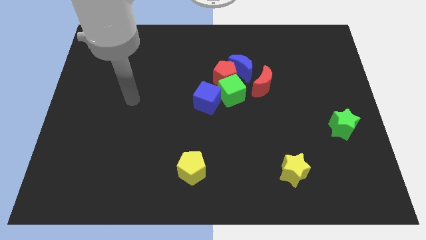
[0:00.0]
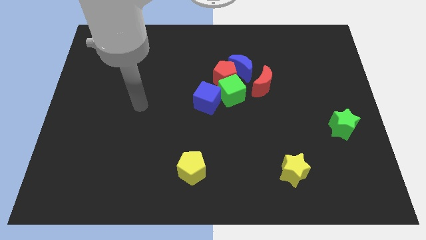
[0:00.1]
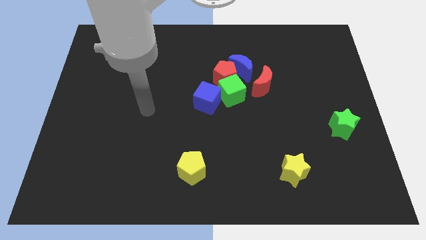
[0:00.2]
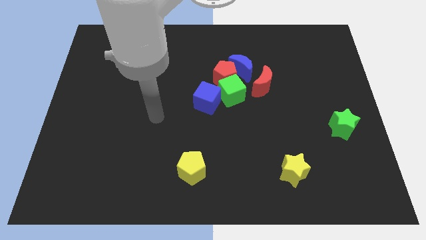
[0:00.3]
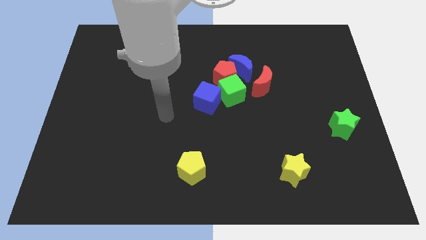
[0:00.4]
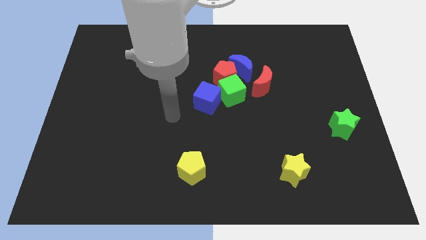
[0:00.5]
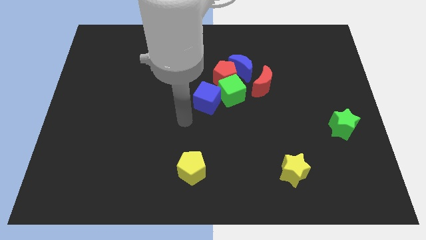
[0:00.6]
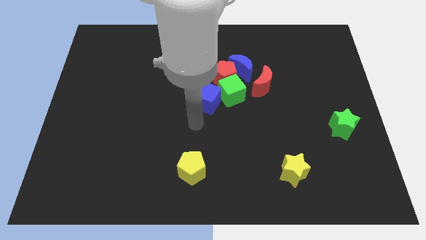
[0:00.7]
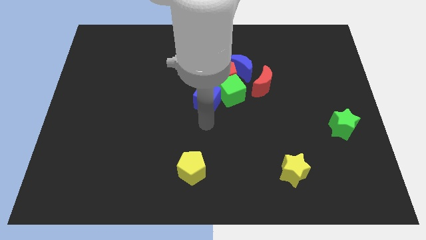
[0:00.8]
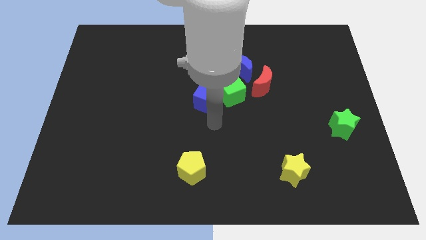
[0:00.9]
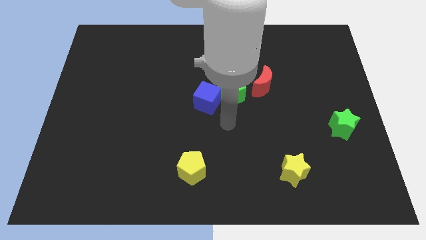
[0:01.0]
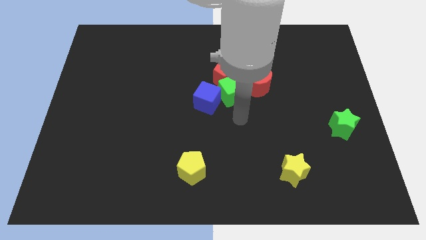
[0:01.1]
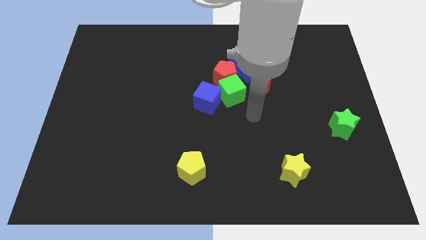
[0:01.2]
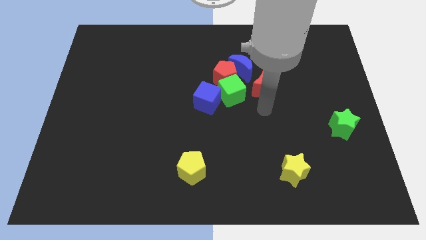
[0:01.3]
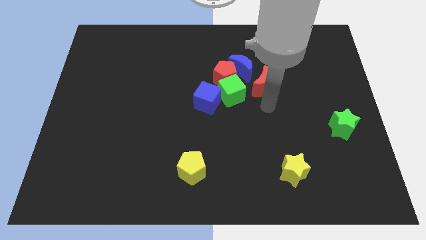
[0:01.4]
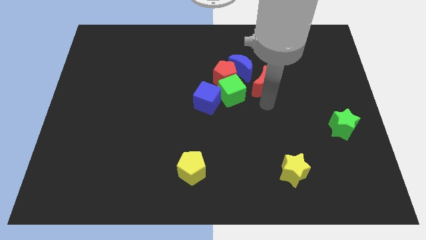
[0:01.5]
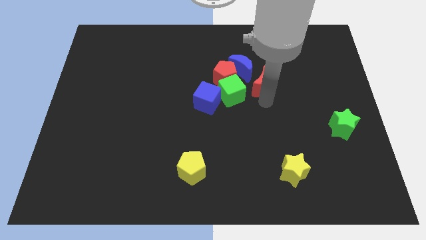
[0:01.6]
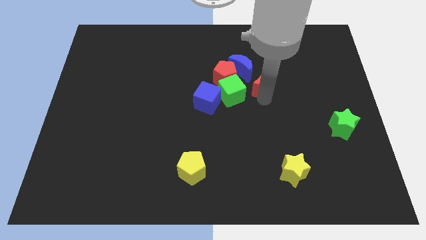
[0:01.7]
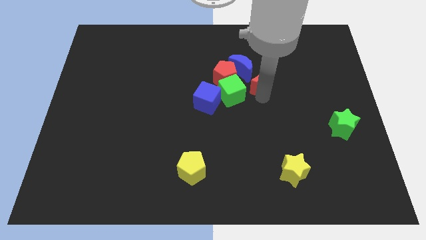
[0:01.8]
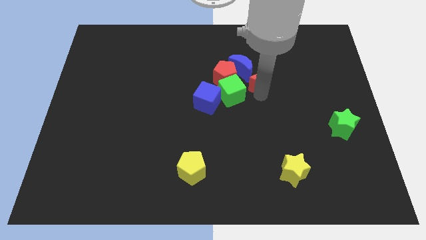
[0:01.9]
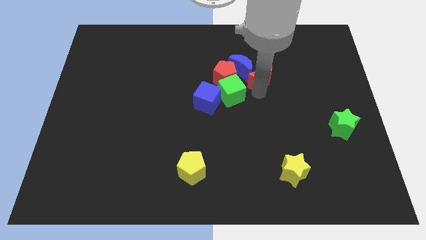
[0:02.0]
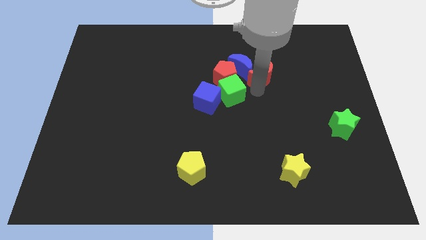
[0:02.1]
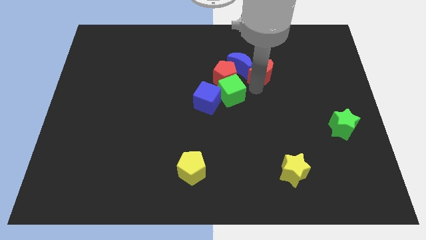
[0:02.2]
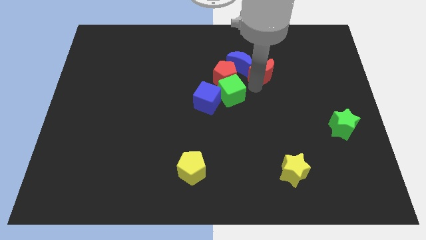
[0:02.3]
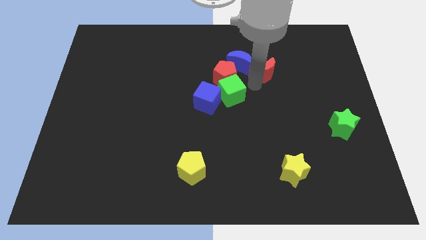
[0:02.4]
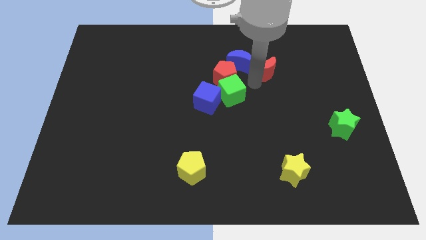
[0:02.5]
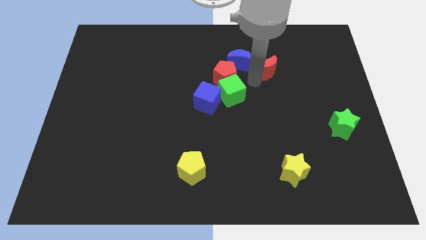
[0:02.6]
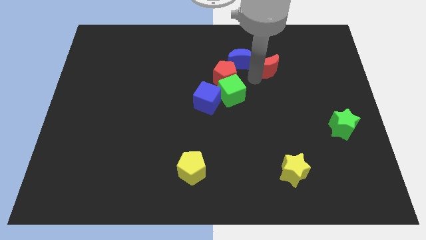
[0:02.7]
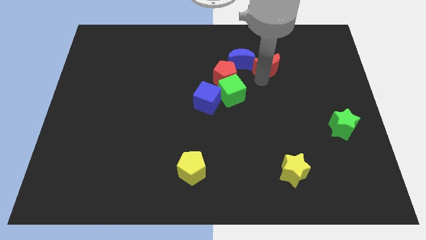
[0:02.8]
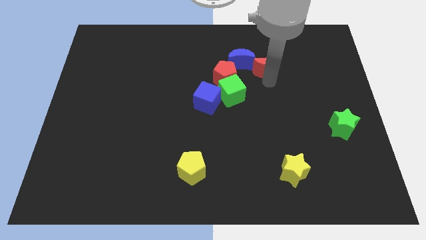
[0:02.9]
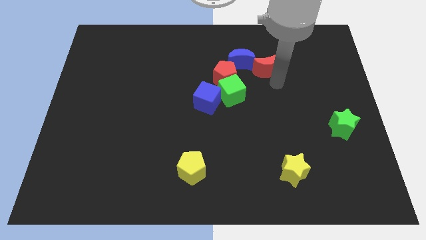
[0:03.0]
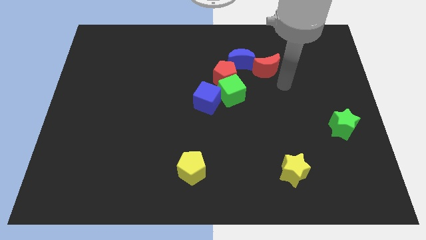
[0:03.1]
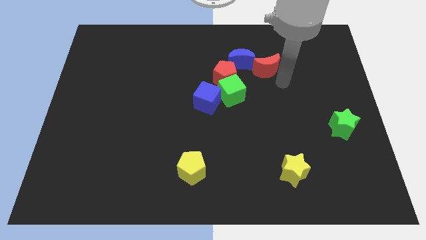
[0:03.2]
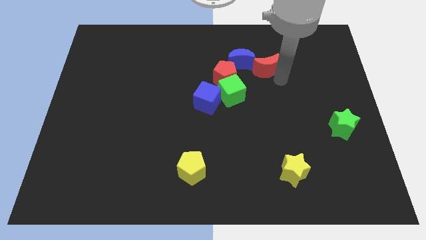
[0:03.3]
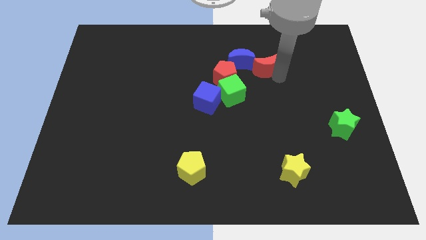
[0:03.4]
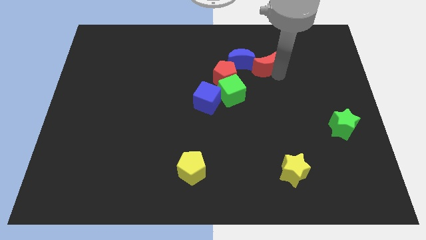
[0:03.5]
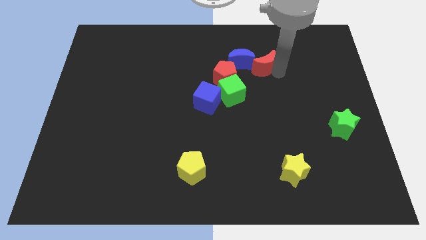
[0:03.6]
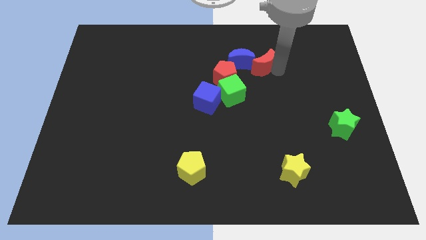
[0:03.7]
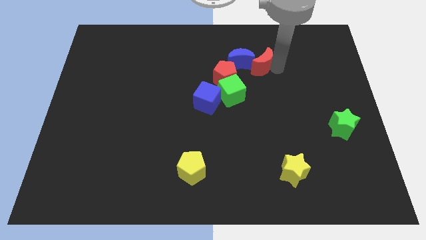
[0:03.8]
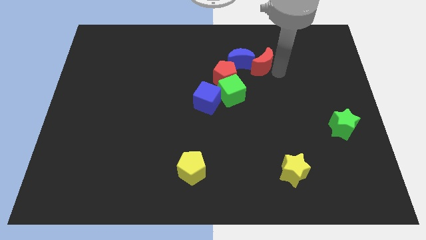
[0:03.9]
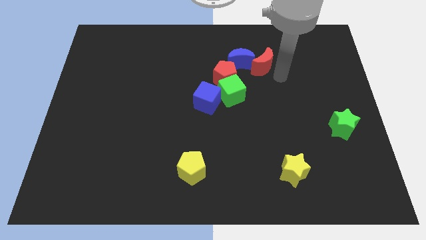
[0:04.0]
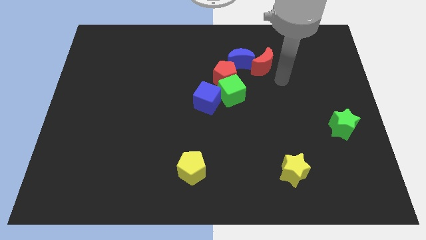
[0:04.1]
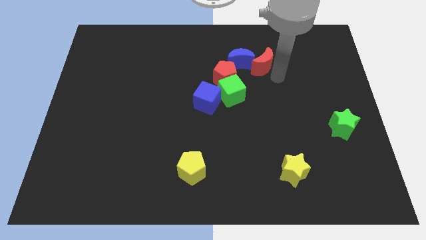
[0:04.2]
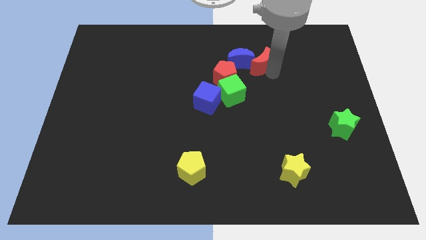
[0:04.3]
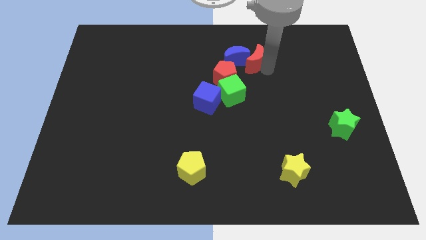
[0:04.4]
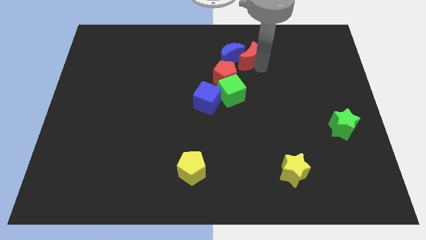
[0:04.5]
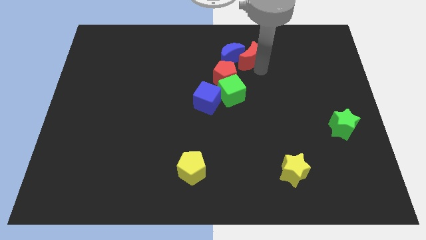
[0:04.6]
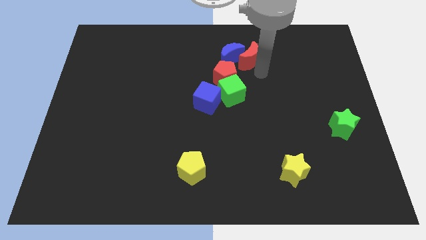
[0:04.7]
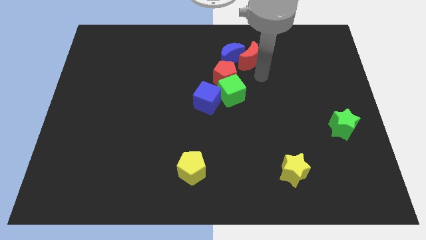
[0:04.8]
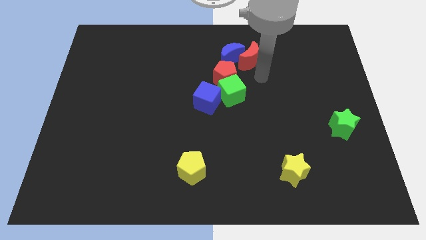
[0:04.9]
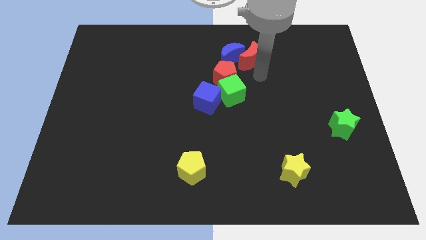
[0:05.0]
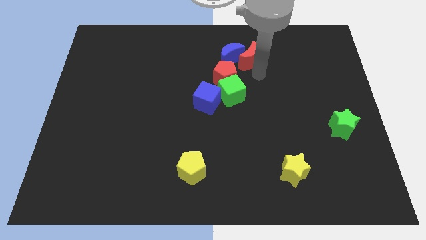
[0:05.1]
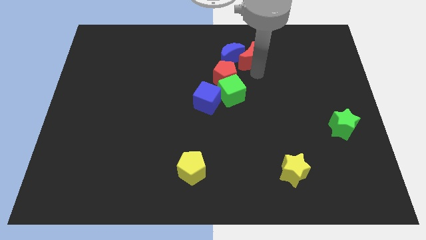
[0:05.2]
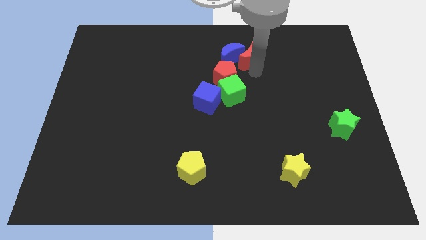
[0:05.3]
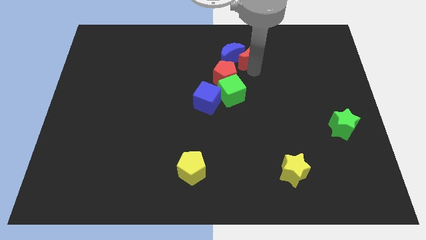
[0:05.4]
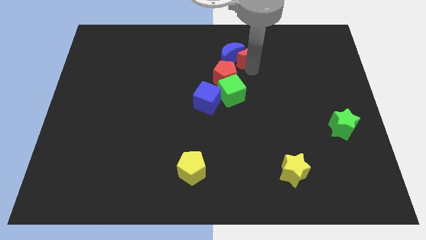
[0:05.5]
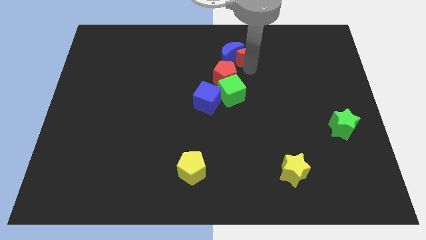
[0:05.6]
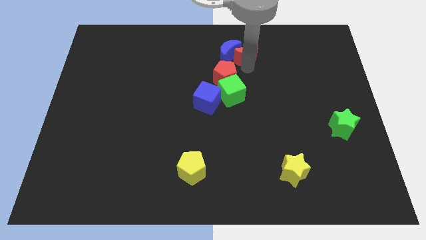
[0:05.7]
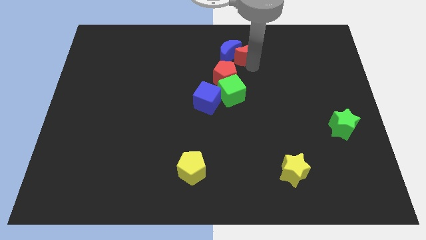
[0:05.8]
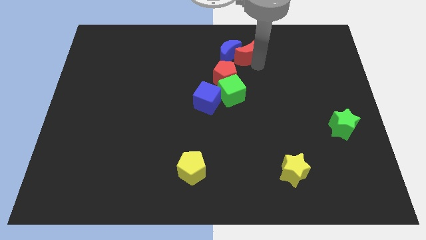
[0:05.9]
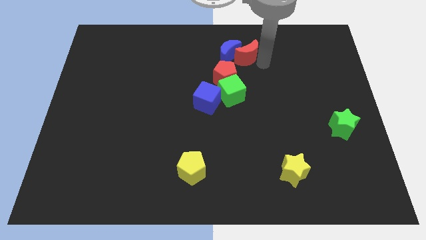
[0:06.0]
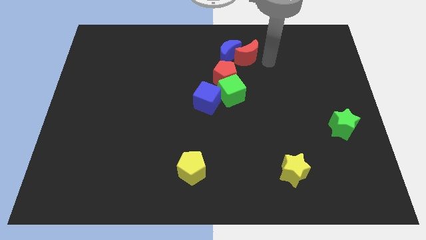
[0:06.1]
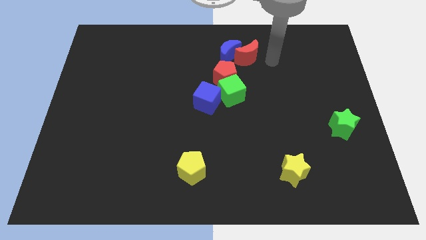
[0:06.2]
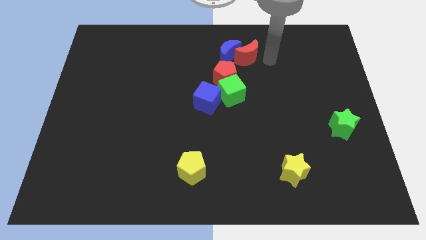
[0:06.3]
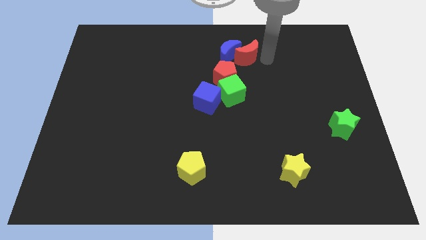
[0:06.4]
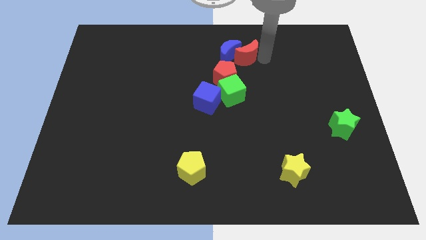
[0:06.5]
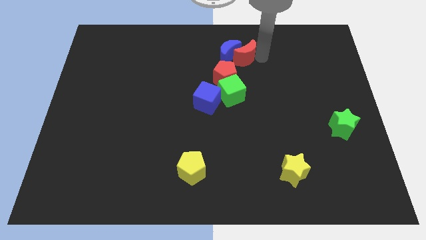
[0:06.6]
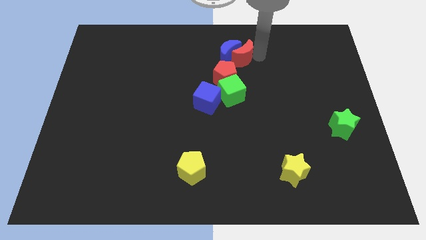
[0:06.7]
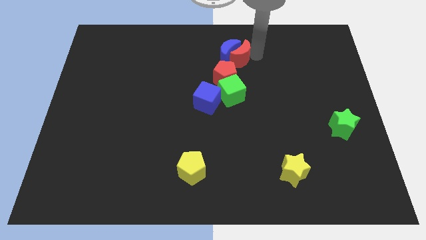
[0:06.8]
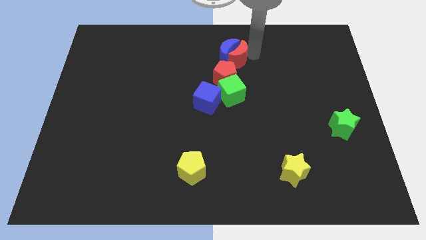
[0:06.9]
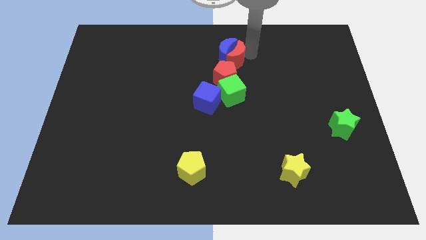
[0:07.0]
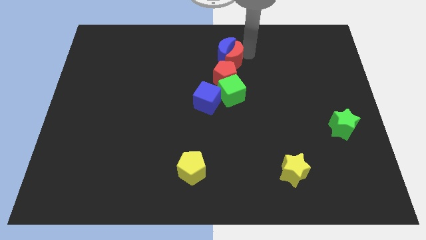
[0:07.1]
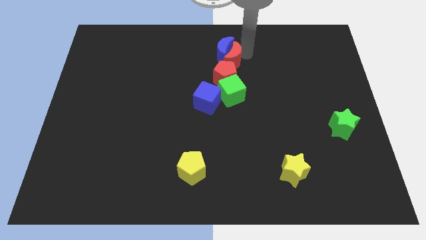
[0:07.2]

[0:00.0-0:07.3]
put the red moon to the red pentagon

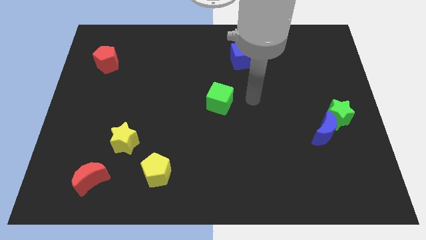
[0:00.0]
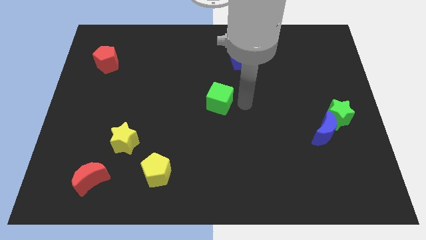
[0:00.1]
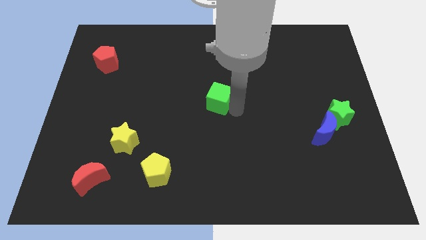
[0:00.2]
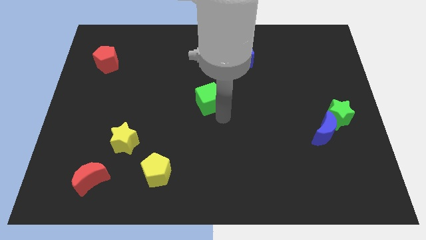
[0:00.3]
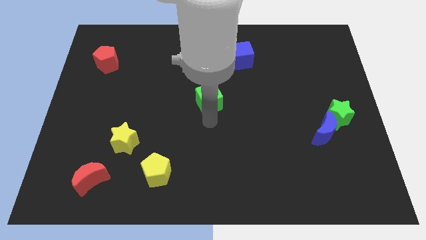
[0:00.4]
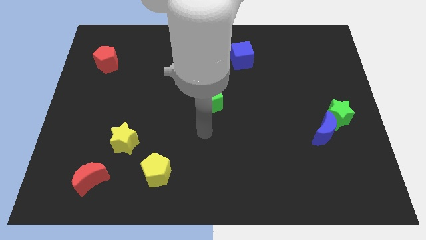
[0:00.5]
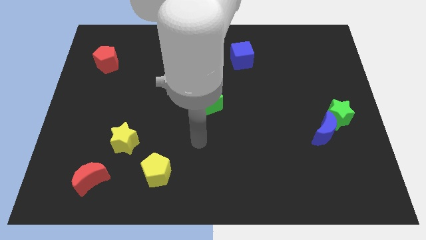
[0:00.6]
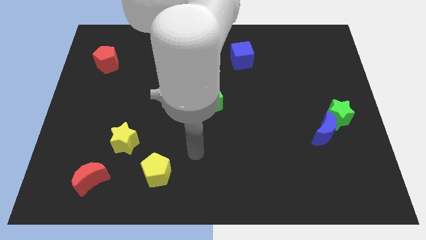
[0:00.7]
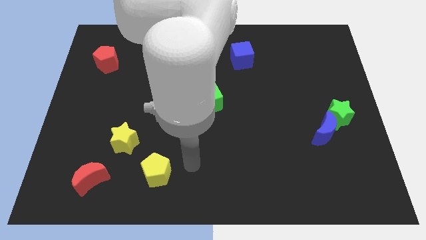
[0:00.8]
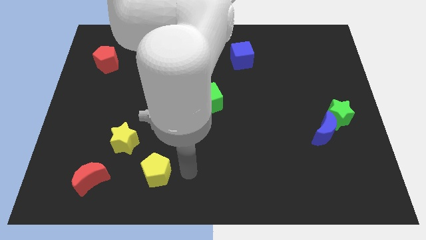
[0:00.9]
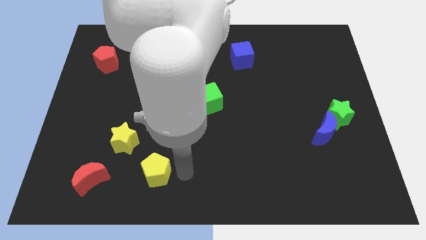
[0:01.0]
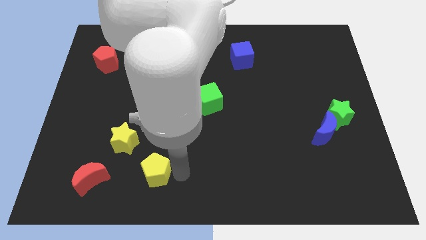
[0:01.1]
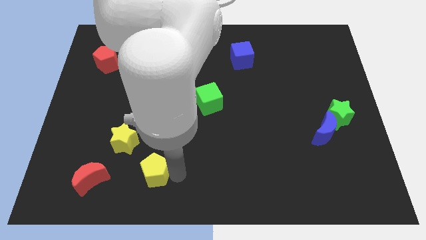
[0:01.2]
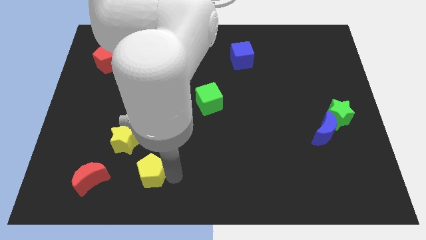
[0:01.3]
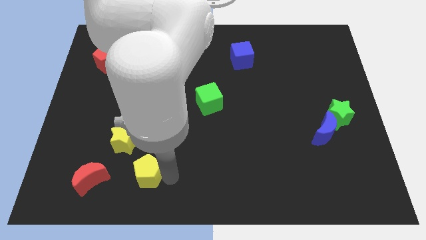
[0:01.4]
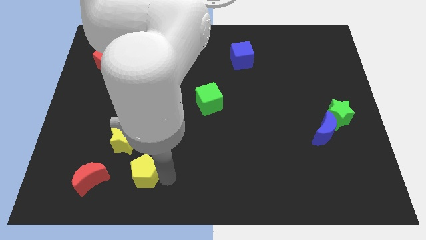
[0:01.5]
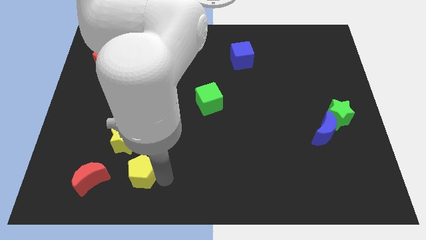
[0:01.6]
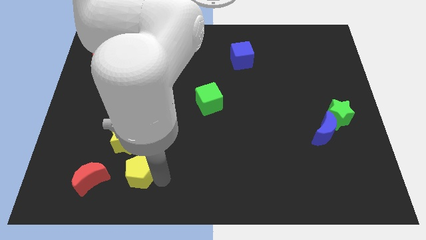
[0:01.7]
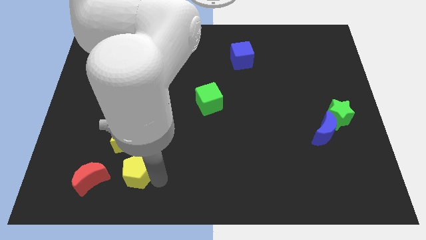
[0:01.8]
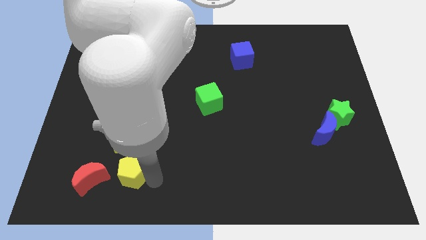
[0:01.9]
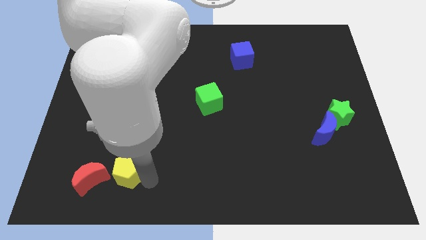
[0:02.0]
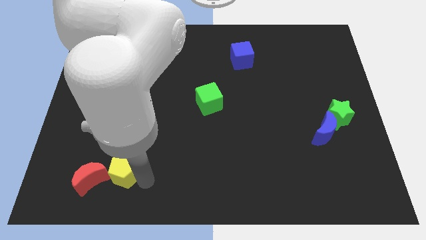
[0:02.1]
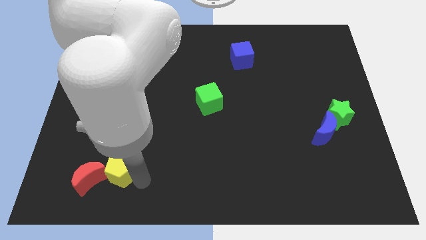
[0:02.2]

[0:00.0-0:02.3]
move the yellow pentagon towards the red moon
